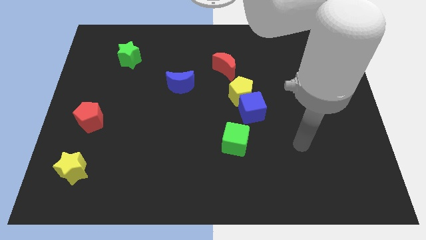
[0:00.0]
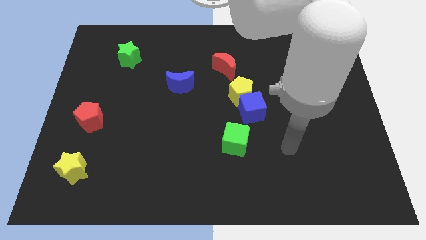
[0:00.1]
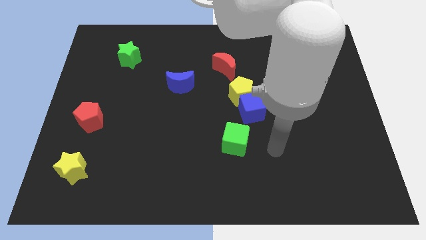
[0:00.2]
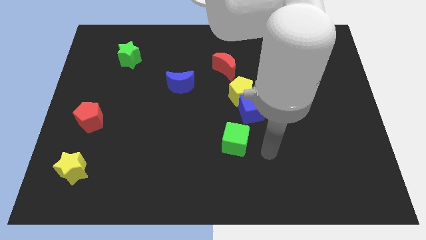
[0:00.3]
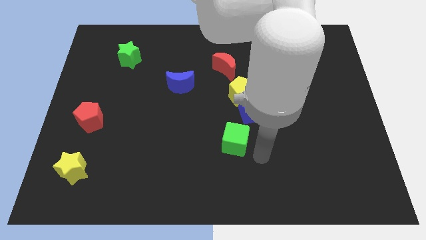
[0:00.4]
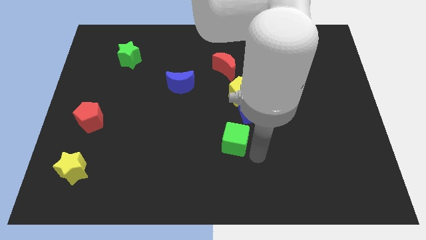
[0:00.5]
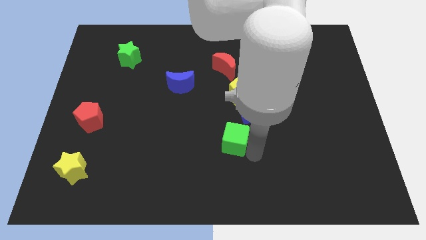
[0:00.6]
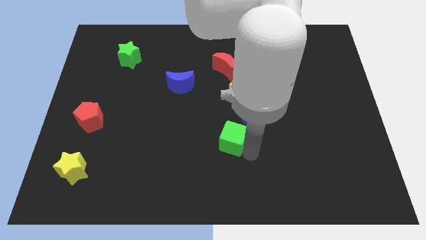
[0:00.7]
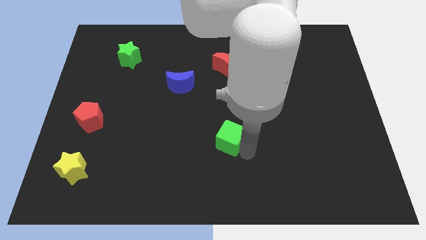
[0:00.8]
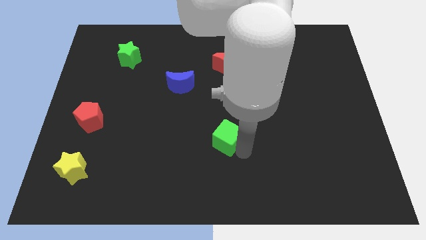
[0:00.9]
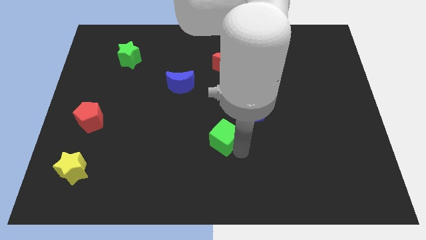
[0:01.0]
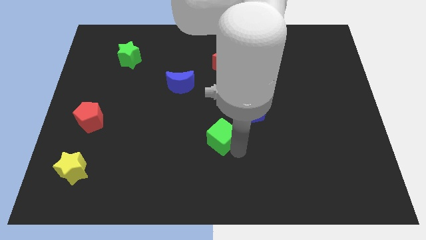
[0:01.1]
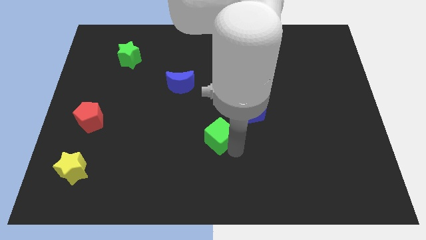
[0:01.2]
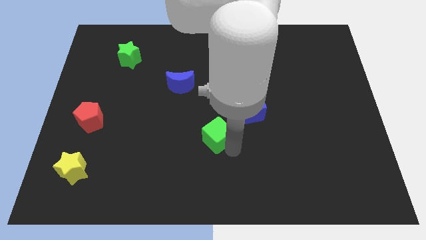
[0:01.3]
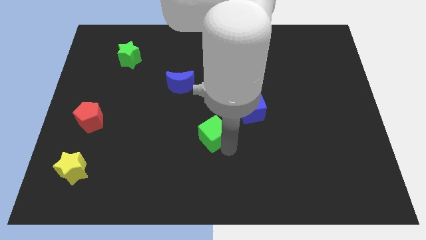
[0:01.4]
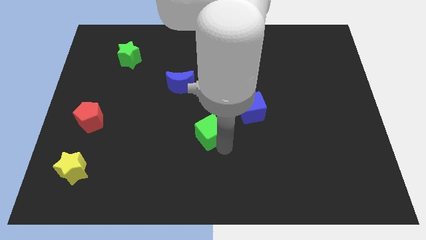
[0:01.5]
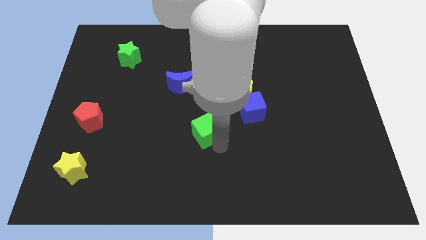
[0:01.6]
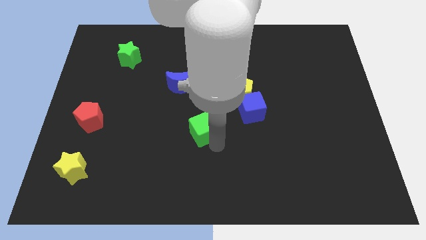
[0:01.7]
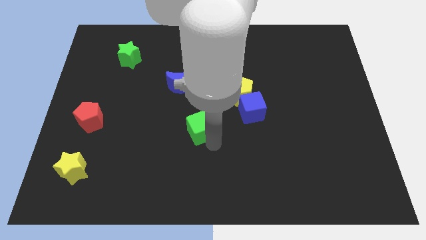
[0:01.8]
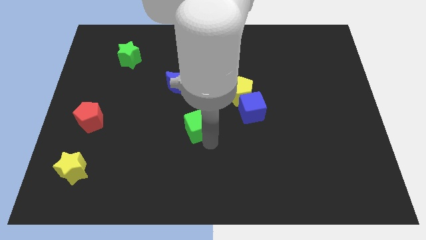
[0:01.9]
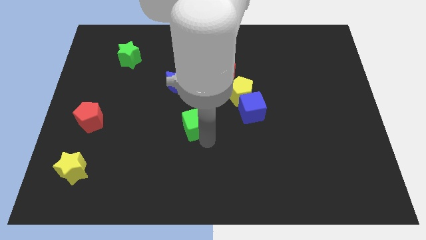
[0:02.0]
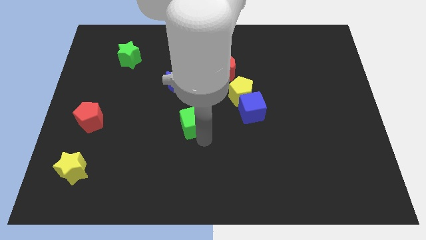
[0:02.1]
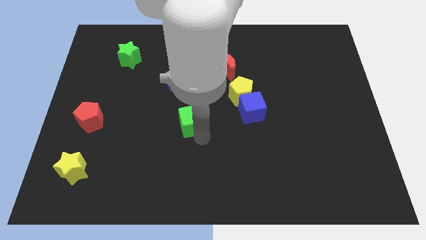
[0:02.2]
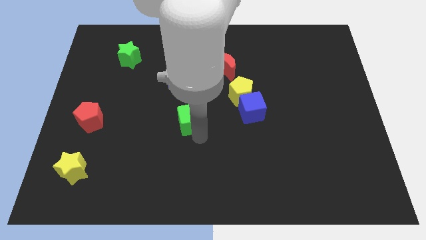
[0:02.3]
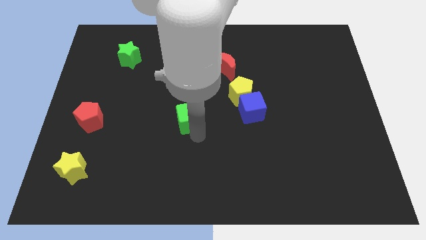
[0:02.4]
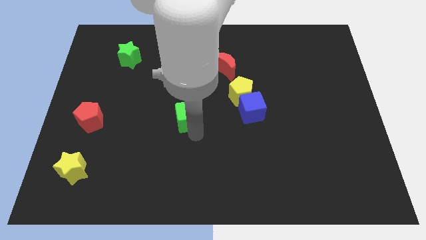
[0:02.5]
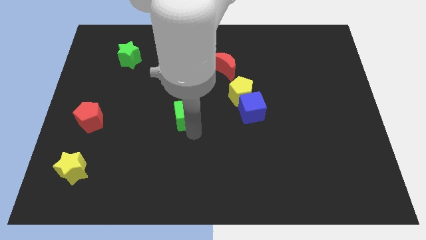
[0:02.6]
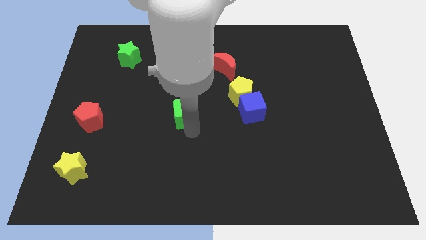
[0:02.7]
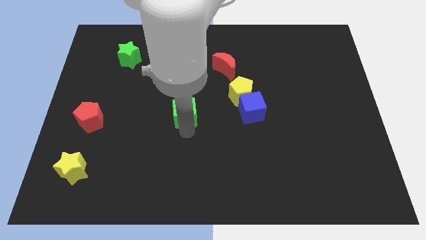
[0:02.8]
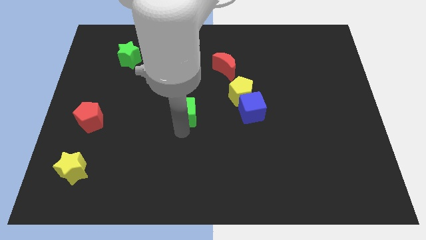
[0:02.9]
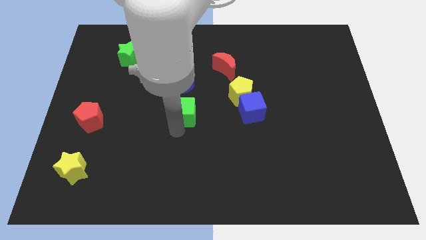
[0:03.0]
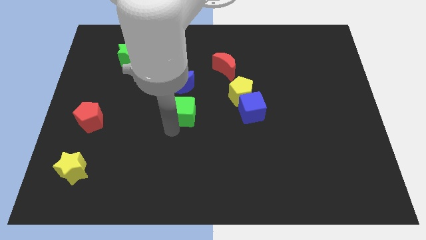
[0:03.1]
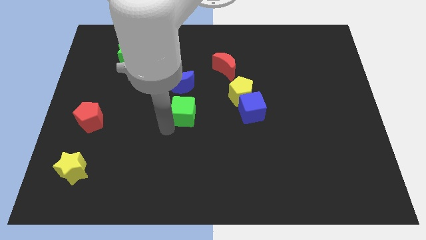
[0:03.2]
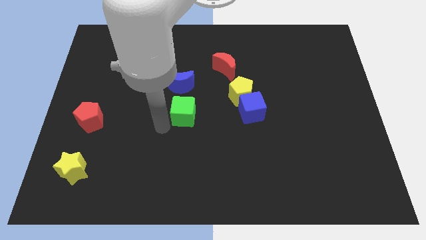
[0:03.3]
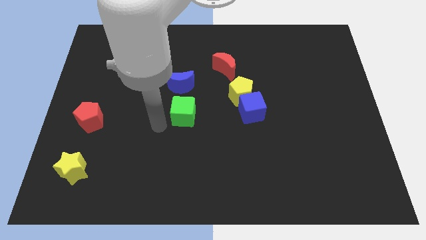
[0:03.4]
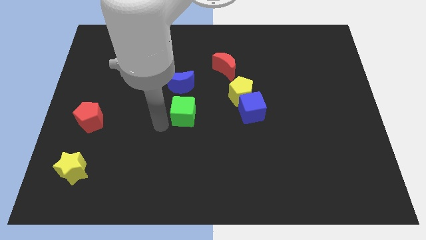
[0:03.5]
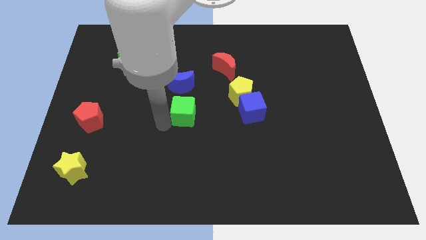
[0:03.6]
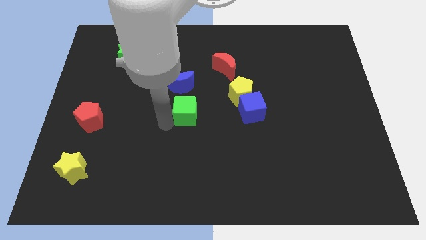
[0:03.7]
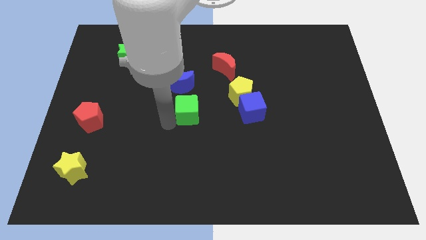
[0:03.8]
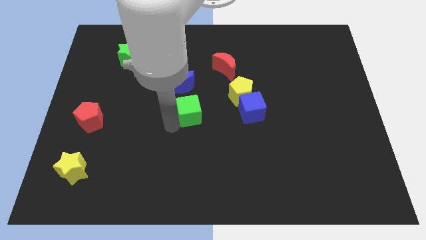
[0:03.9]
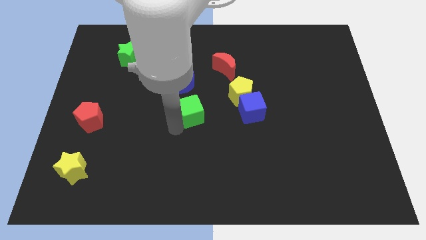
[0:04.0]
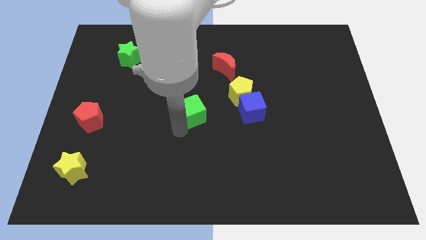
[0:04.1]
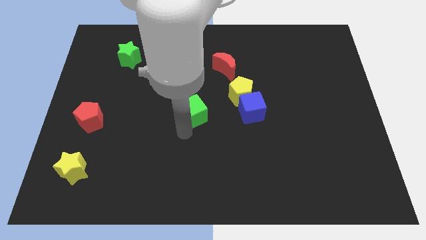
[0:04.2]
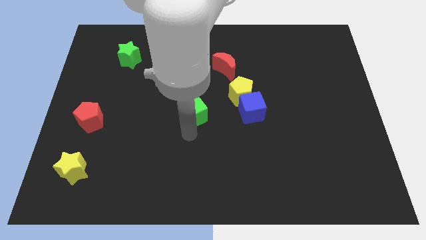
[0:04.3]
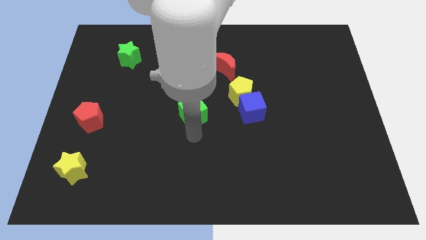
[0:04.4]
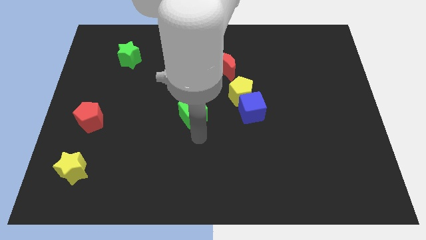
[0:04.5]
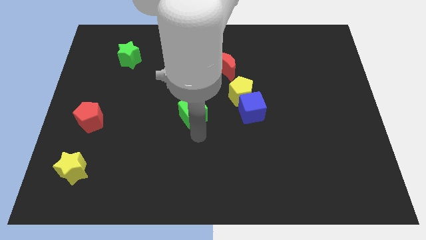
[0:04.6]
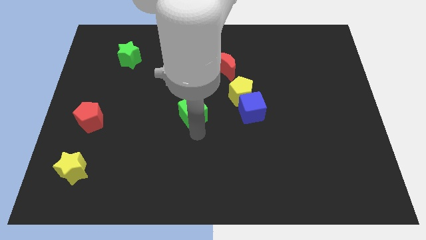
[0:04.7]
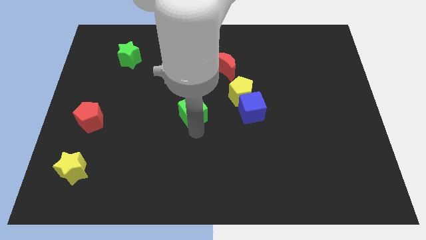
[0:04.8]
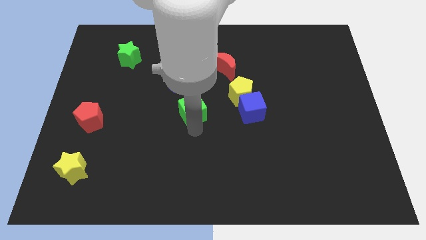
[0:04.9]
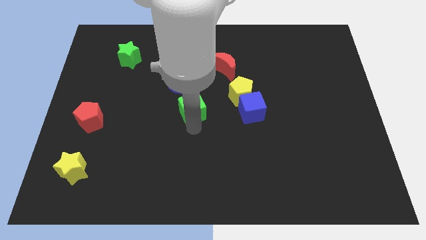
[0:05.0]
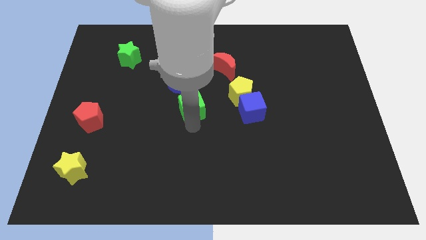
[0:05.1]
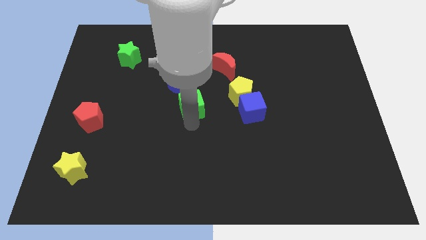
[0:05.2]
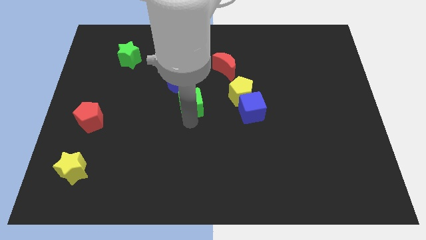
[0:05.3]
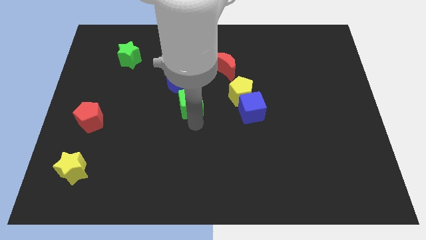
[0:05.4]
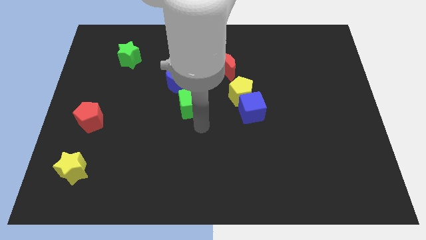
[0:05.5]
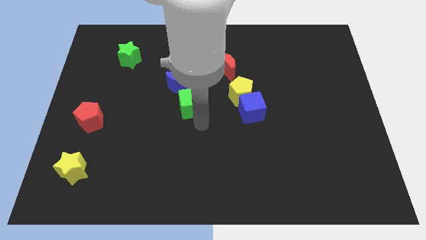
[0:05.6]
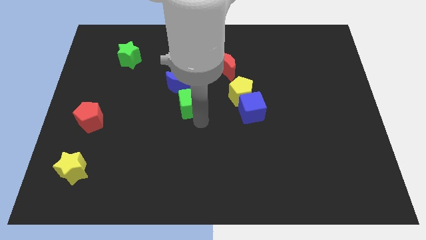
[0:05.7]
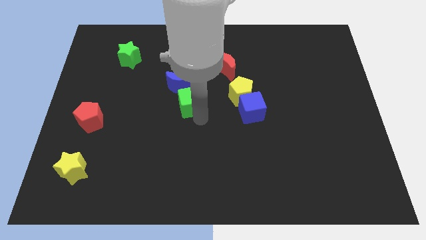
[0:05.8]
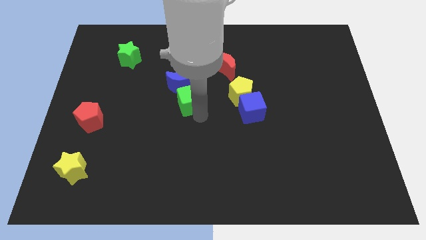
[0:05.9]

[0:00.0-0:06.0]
push the green cube towards the blue moon

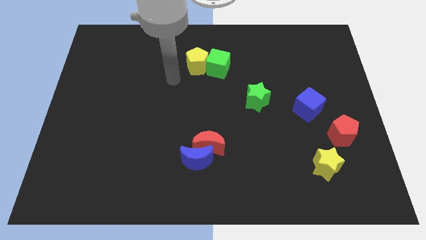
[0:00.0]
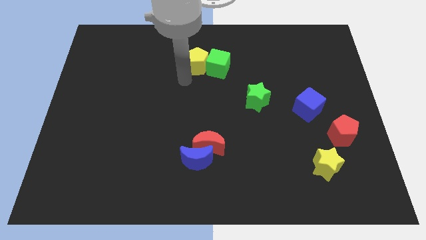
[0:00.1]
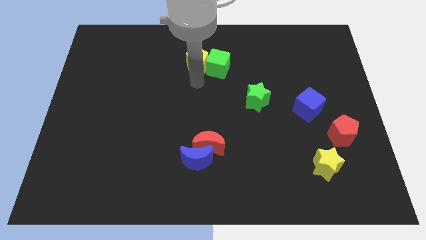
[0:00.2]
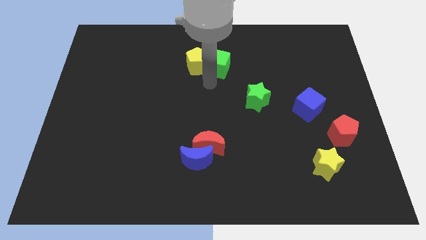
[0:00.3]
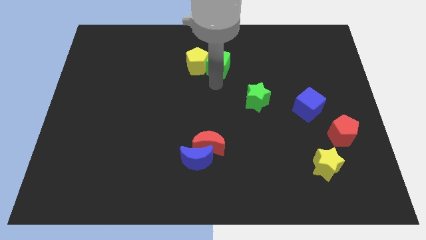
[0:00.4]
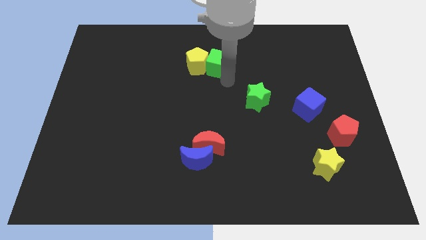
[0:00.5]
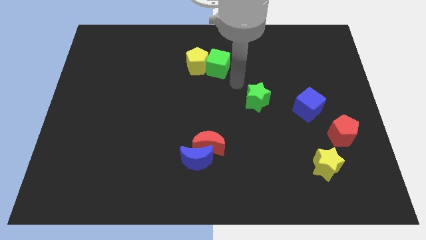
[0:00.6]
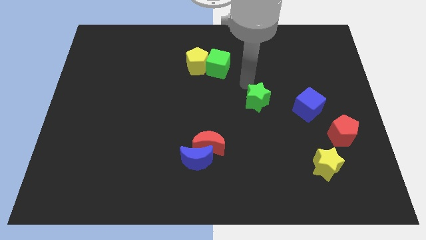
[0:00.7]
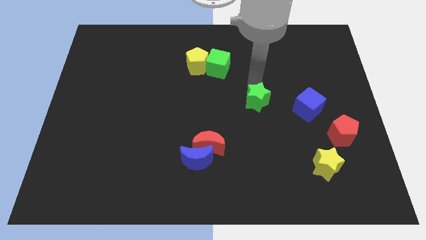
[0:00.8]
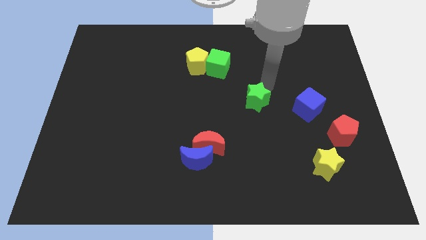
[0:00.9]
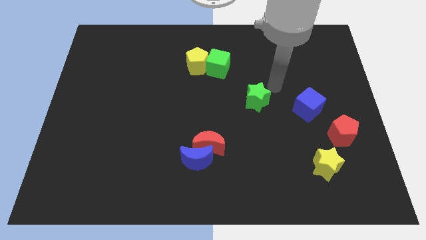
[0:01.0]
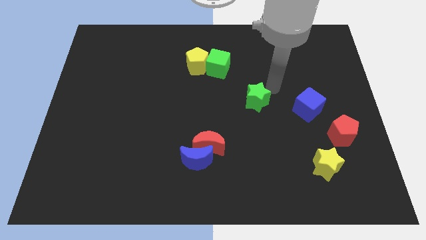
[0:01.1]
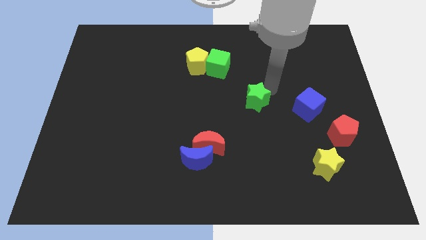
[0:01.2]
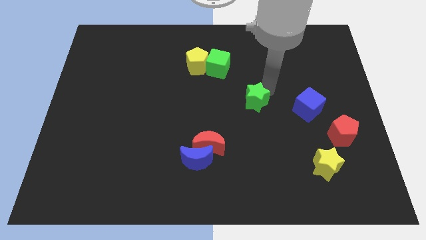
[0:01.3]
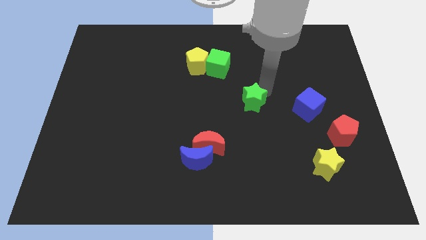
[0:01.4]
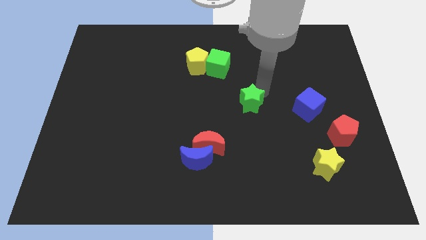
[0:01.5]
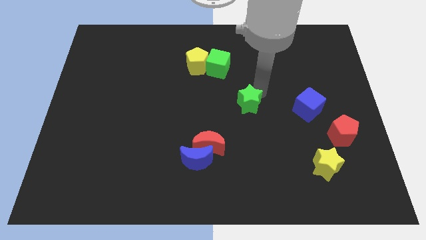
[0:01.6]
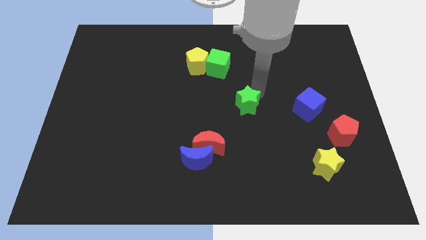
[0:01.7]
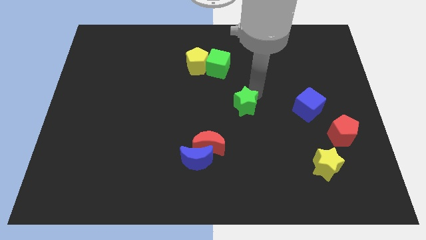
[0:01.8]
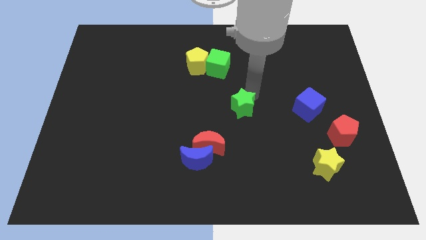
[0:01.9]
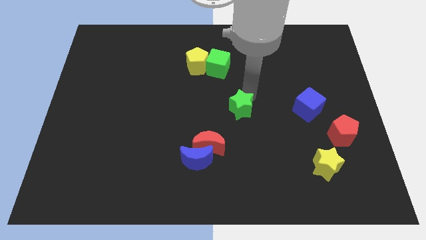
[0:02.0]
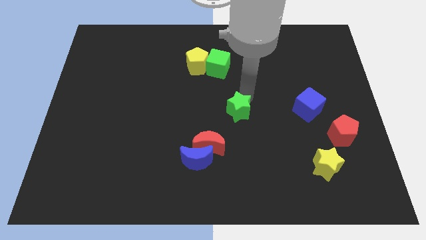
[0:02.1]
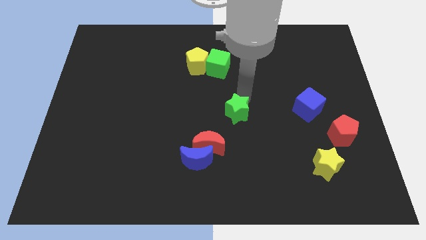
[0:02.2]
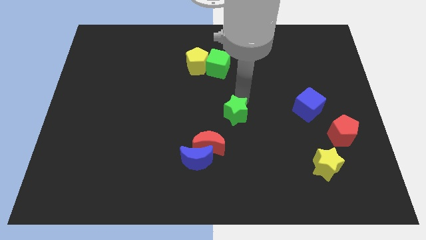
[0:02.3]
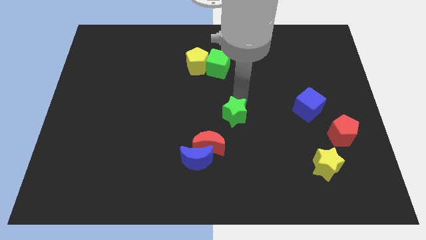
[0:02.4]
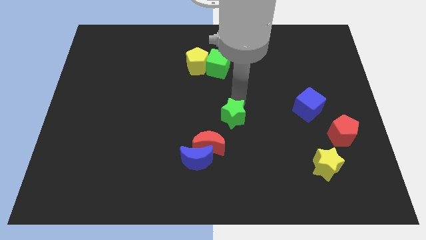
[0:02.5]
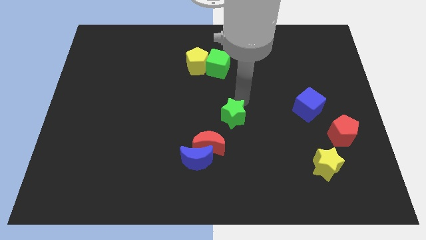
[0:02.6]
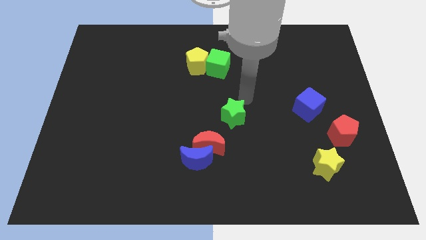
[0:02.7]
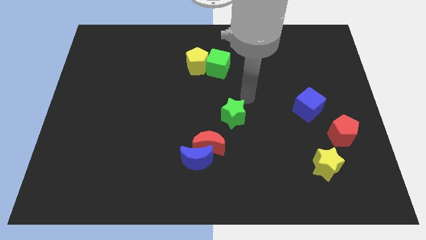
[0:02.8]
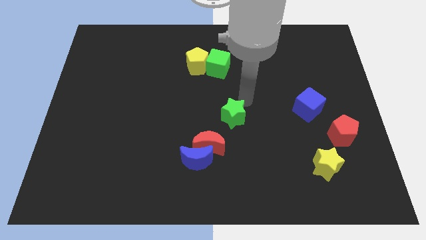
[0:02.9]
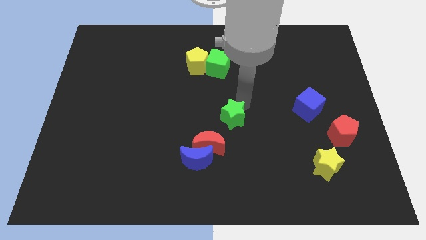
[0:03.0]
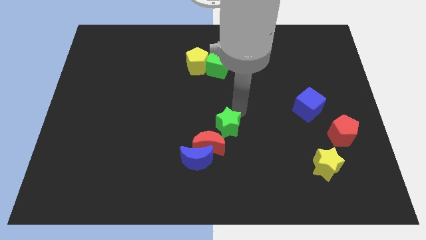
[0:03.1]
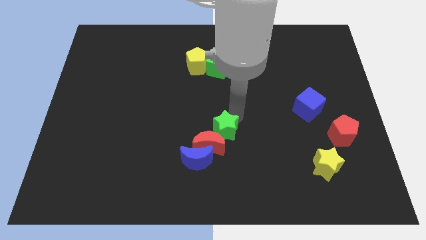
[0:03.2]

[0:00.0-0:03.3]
put the green star to the red moon
